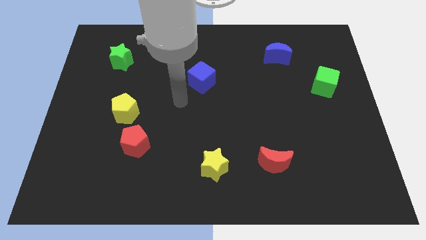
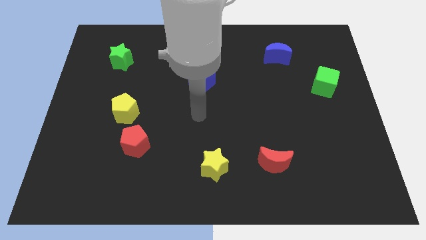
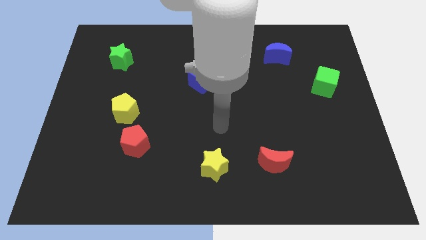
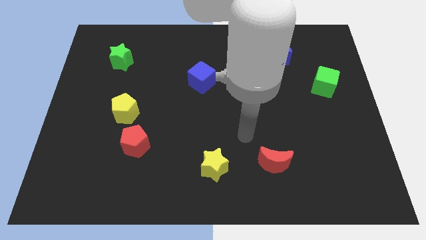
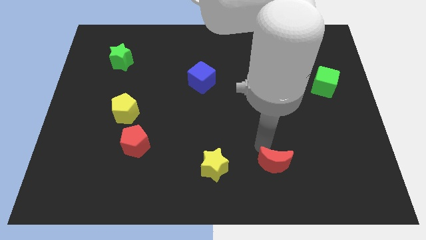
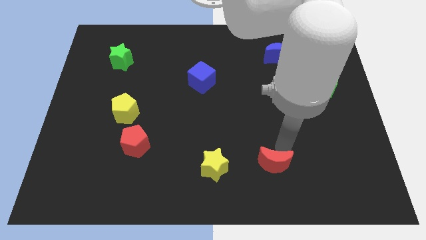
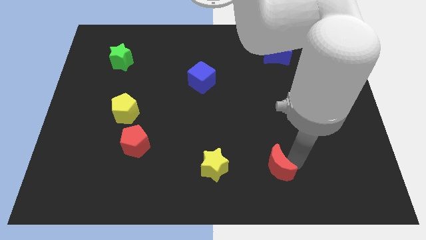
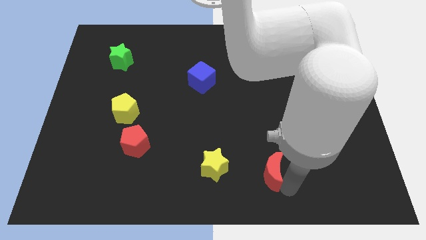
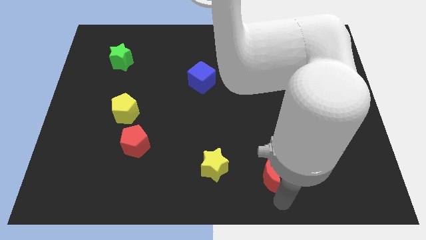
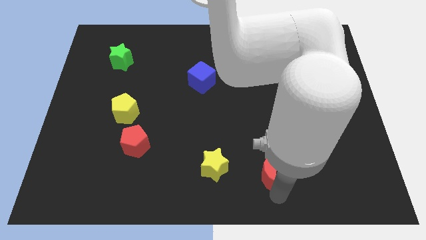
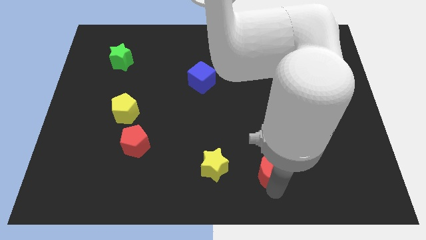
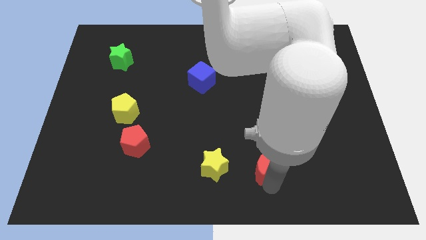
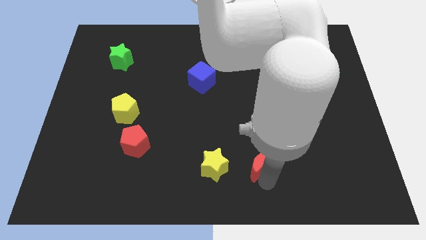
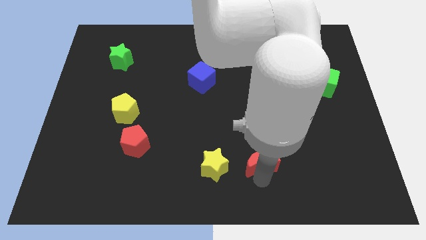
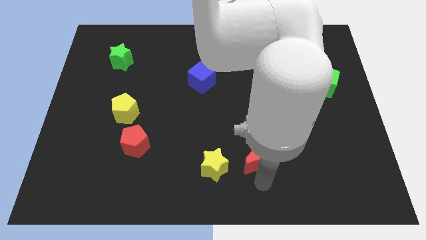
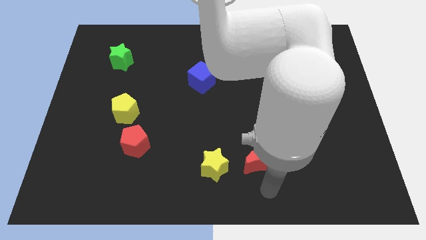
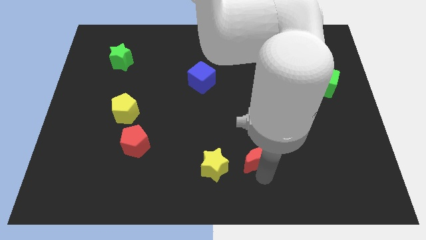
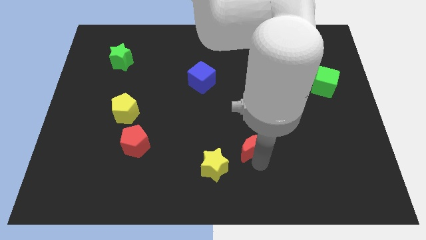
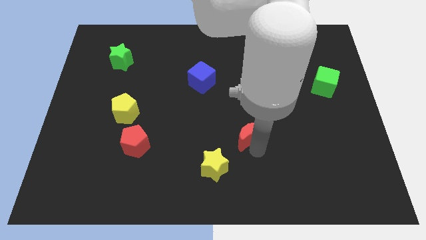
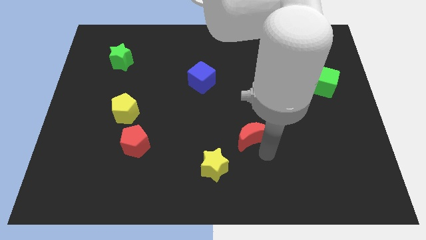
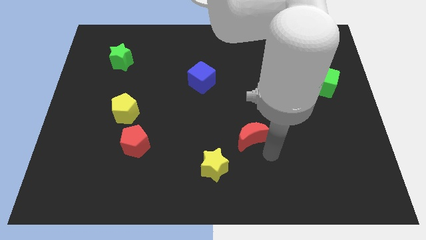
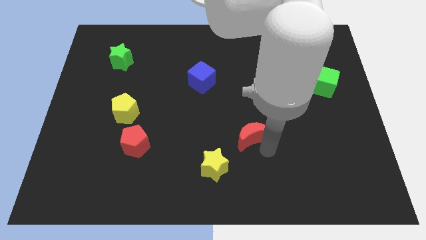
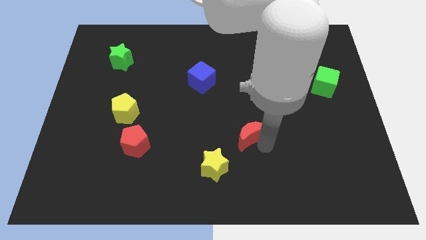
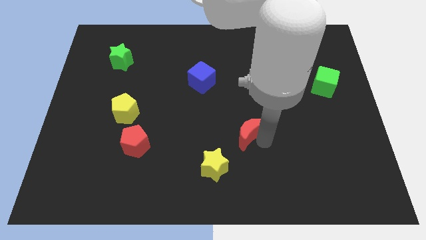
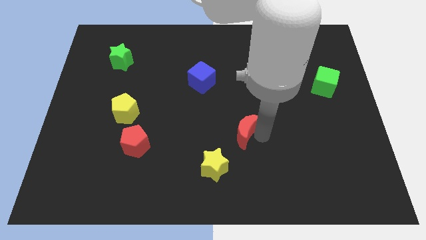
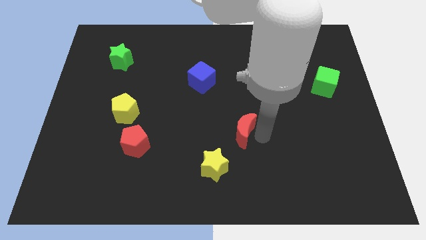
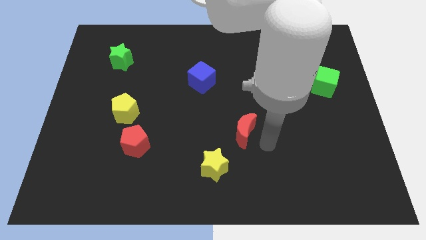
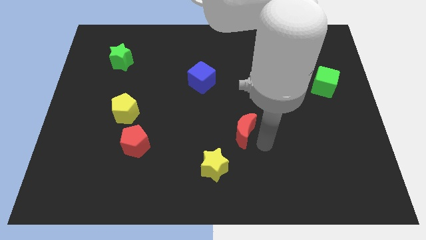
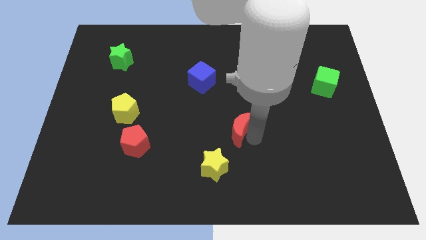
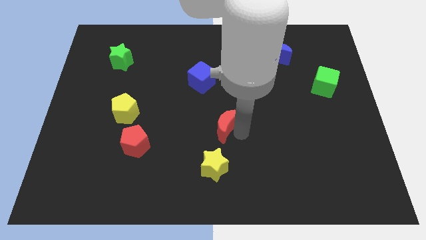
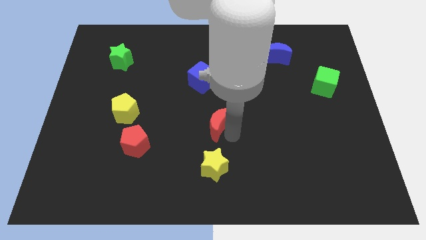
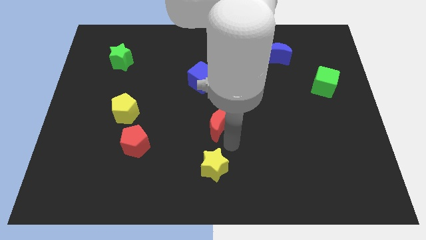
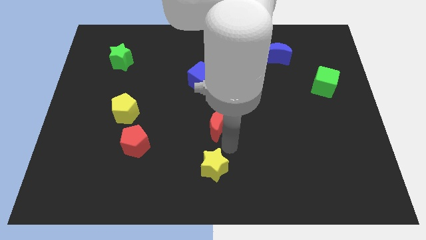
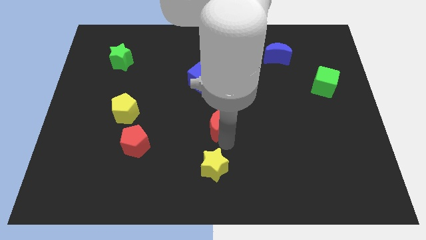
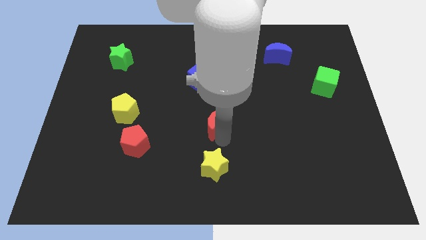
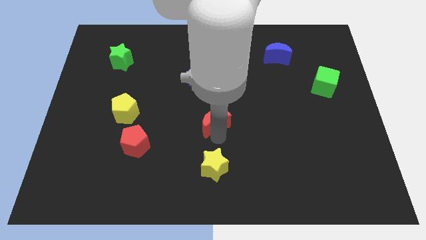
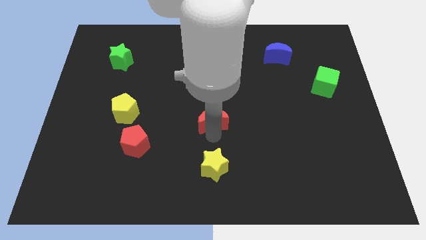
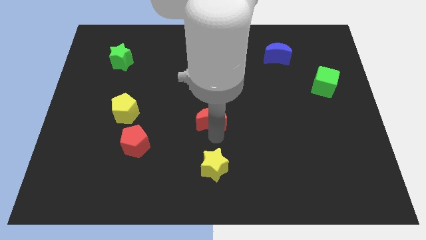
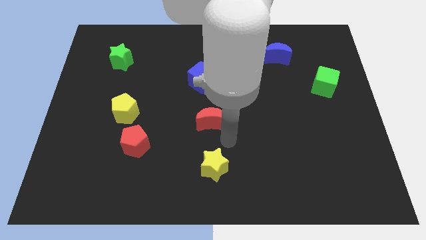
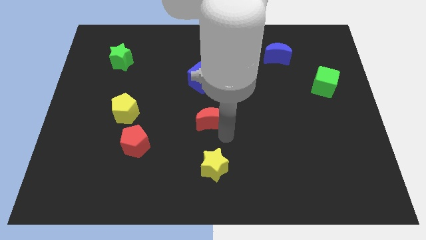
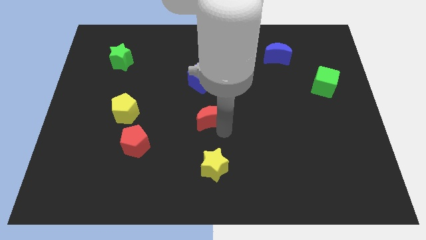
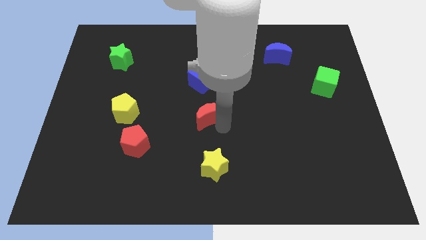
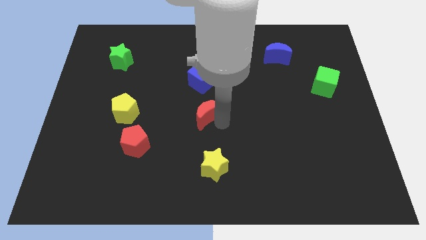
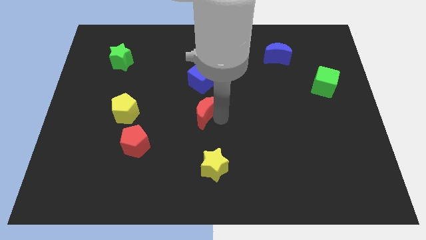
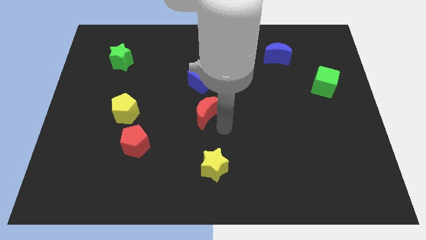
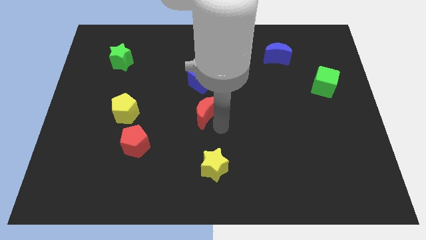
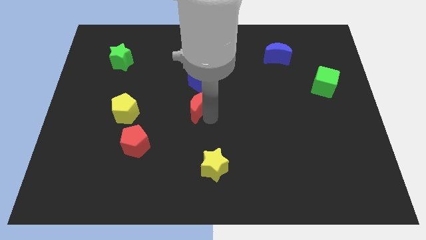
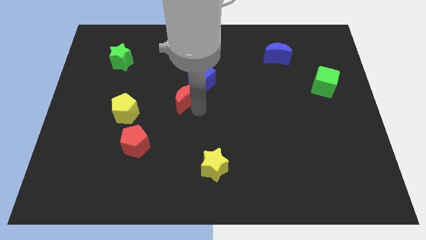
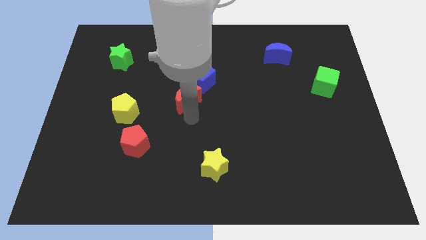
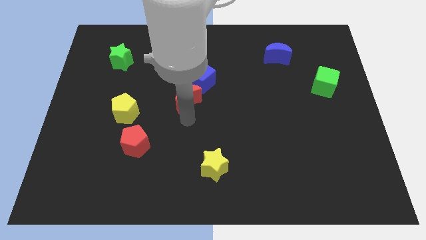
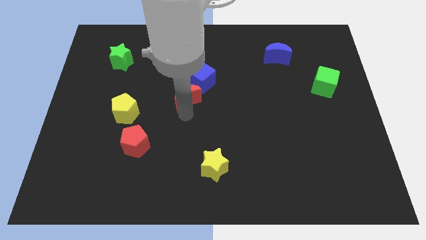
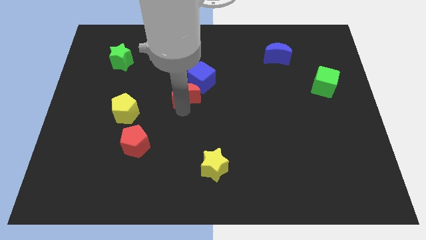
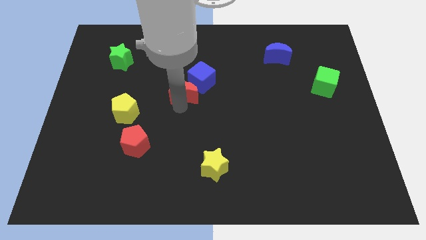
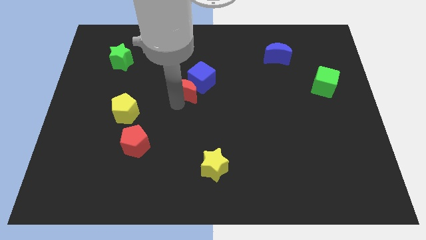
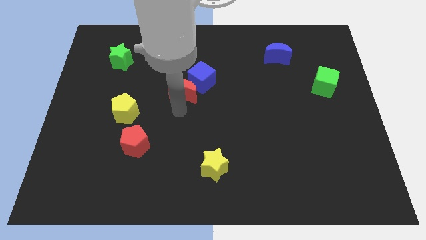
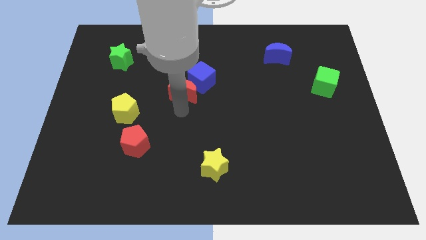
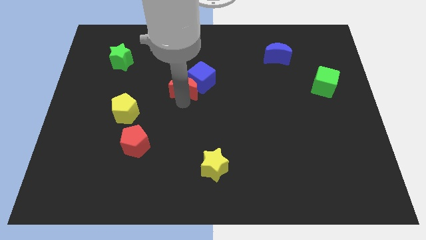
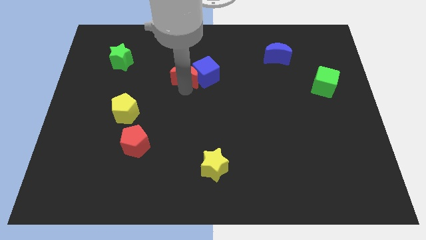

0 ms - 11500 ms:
push the red moon to the top left side of the blue cube

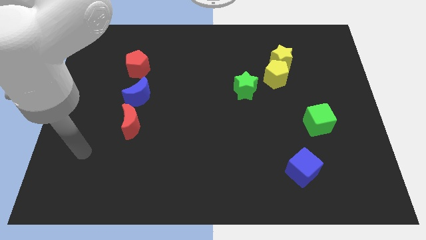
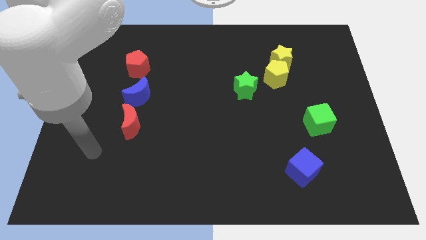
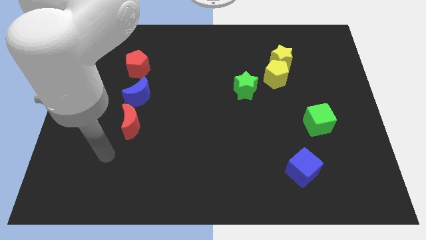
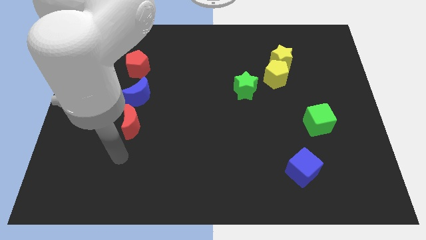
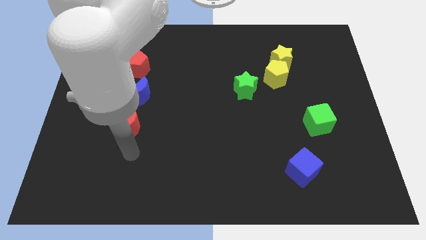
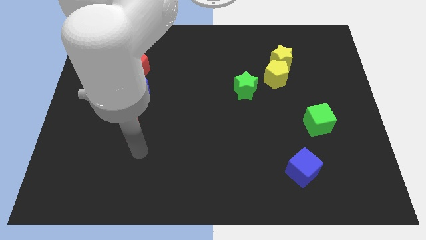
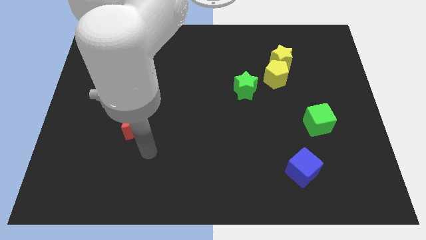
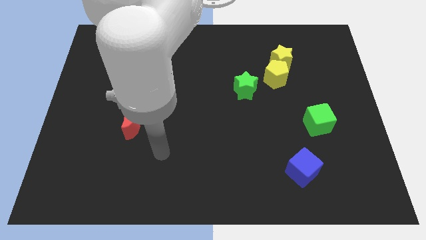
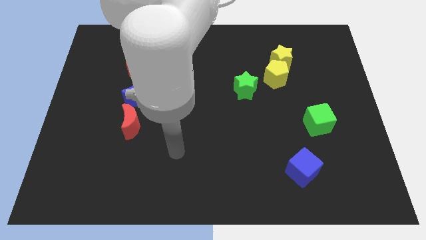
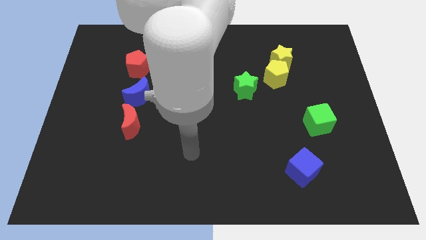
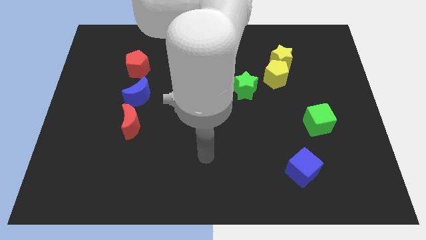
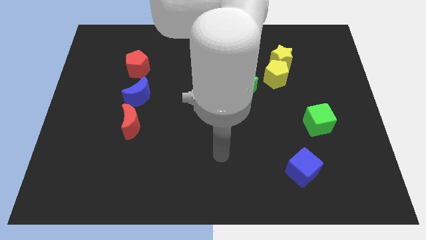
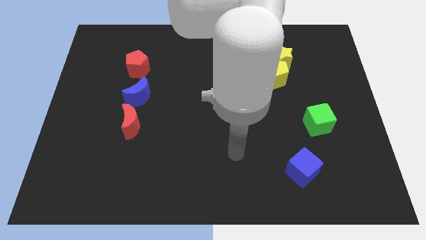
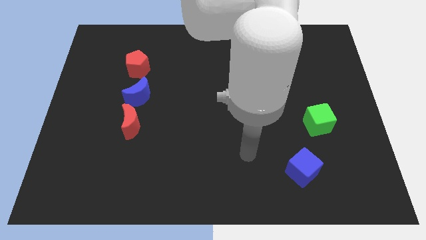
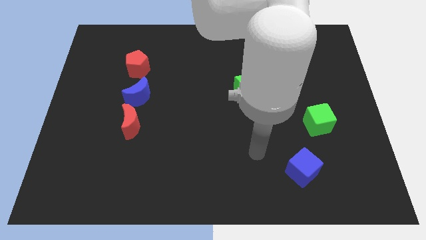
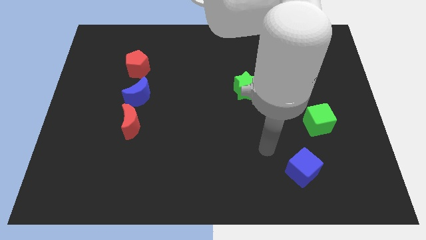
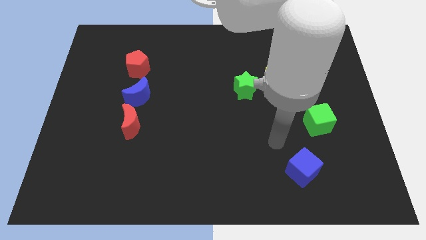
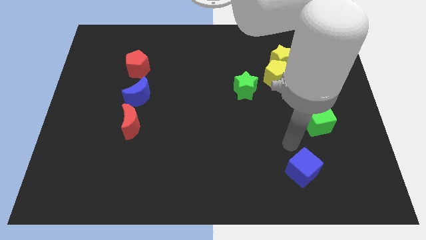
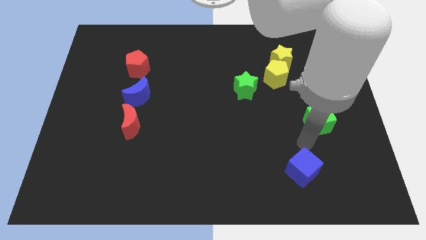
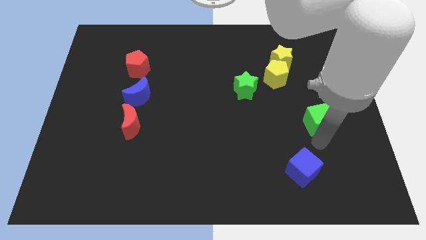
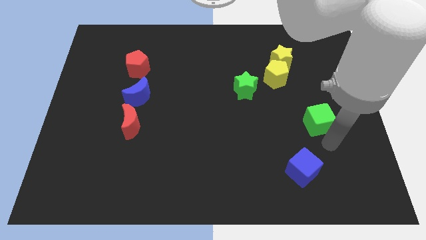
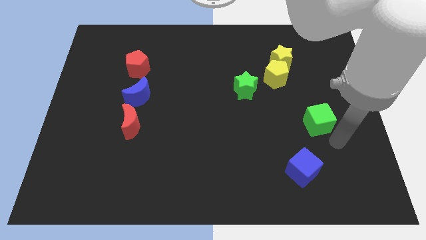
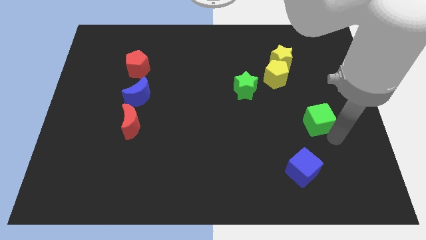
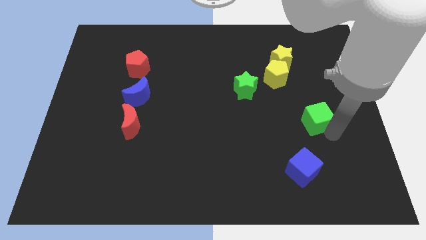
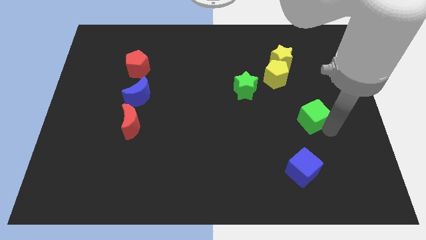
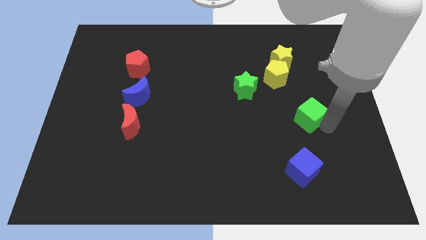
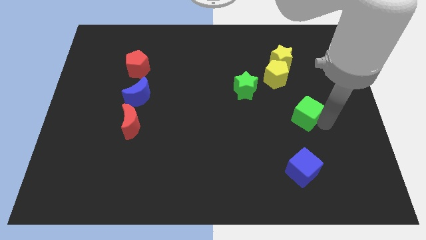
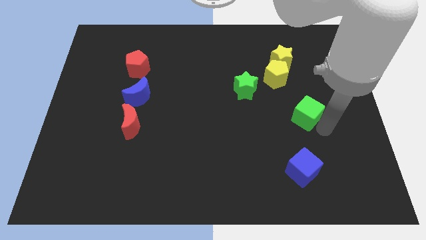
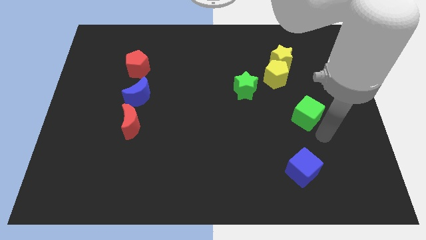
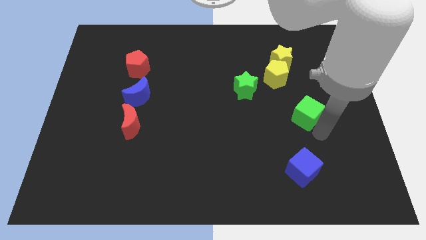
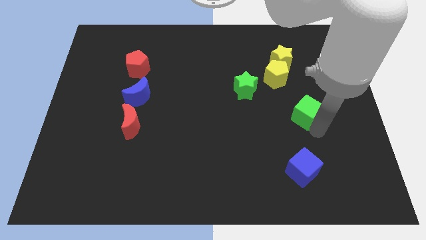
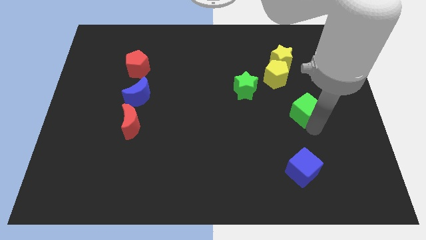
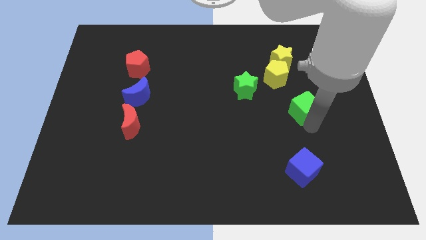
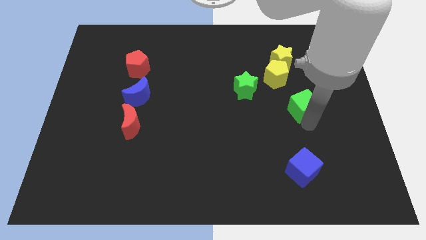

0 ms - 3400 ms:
move the green cube to the bottom of the yellow star
